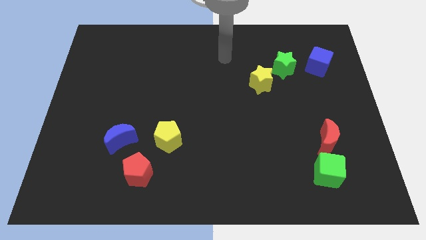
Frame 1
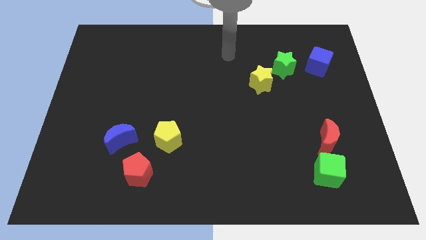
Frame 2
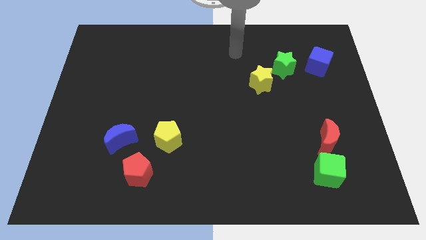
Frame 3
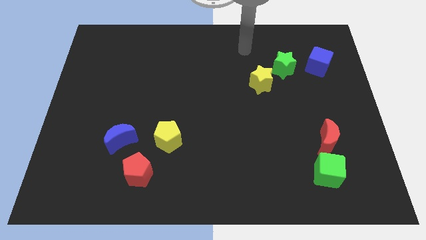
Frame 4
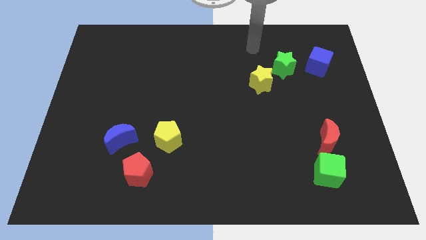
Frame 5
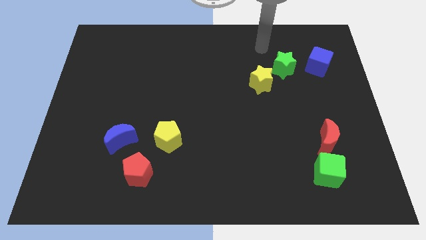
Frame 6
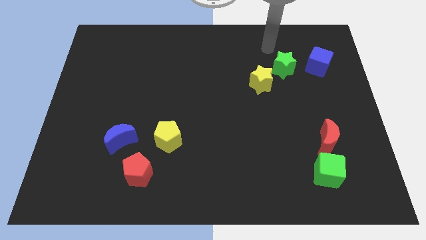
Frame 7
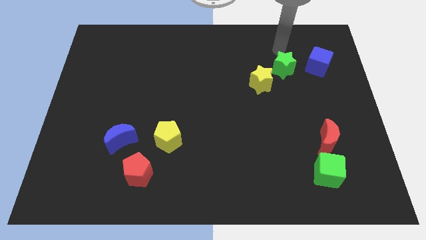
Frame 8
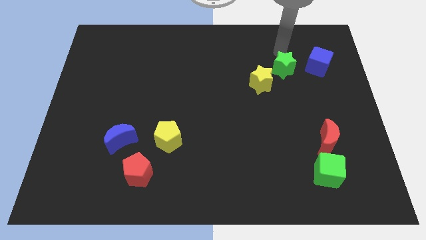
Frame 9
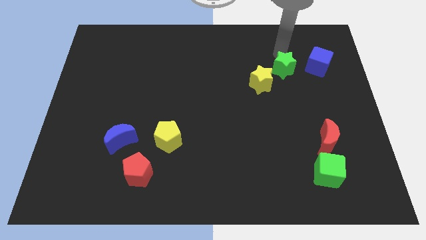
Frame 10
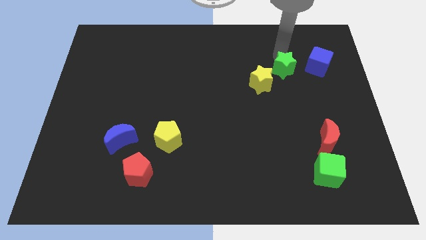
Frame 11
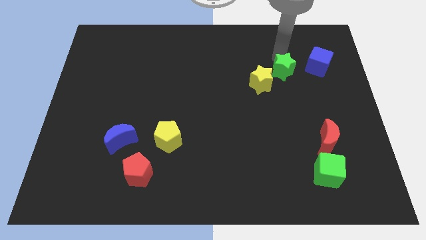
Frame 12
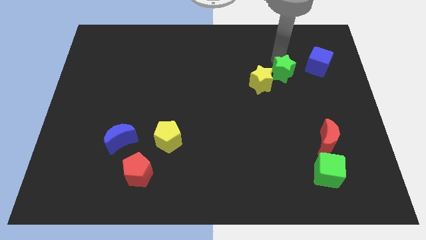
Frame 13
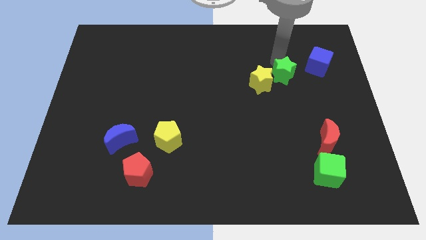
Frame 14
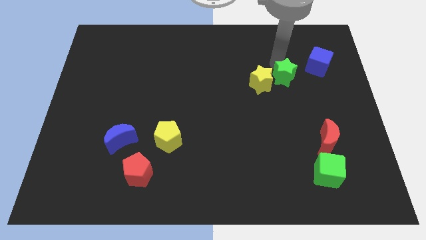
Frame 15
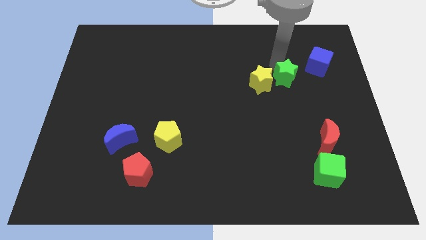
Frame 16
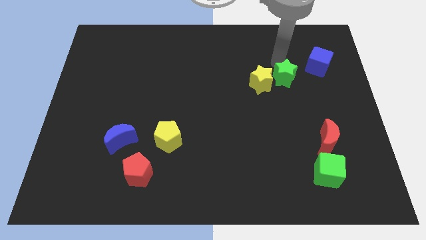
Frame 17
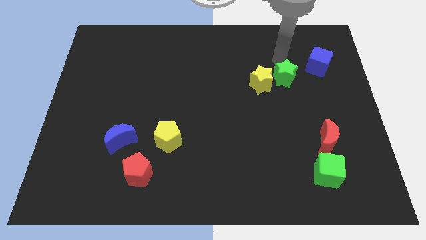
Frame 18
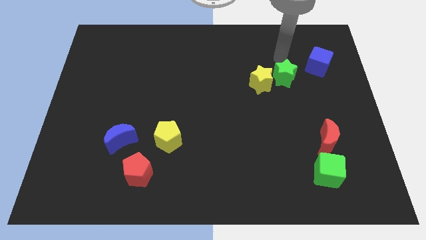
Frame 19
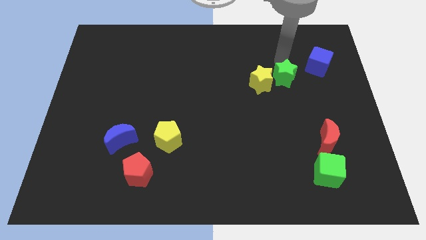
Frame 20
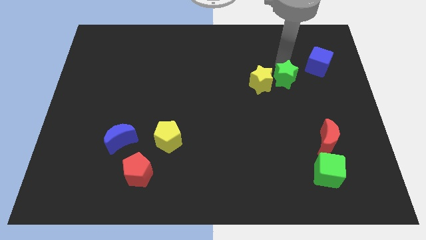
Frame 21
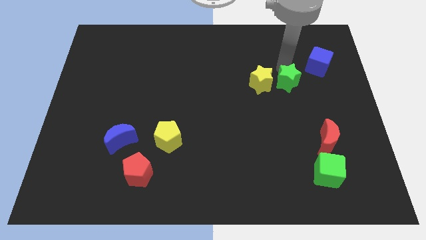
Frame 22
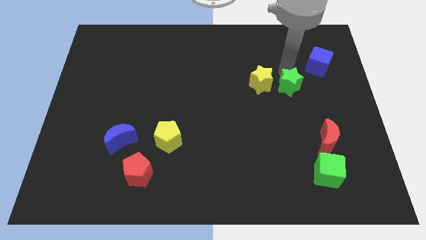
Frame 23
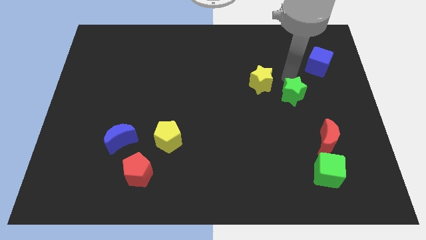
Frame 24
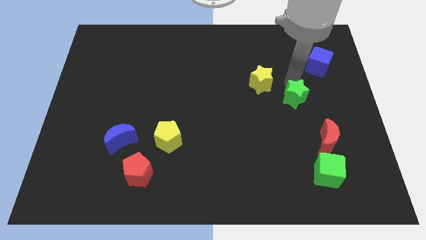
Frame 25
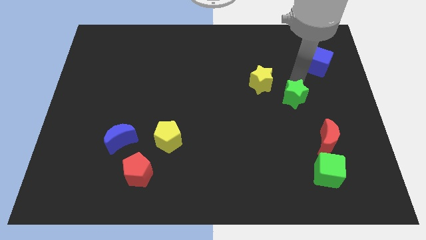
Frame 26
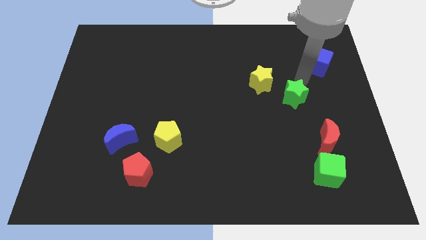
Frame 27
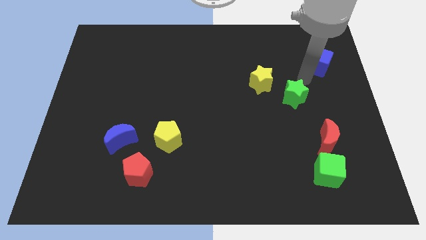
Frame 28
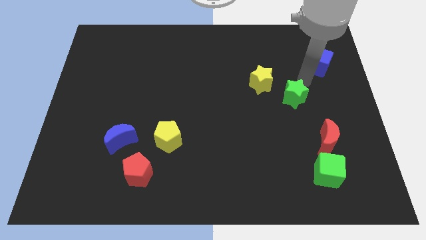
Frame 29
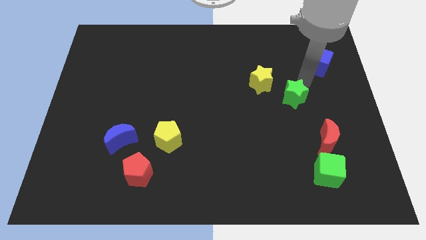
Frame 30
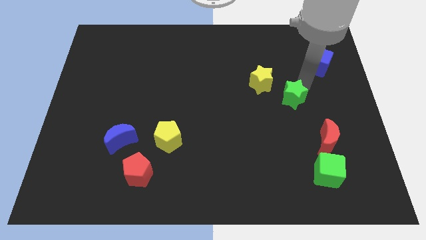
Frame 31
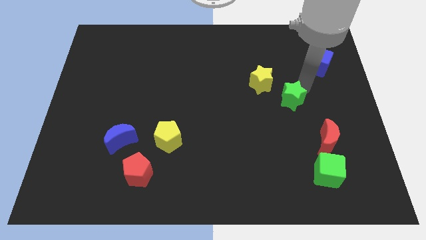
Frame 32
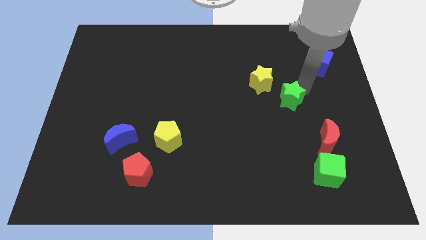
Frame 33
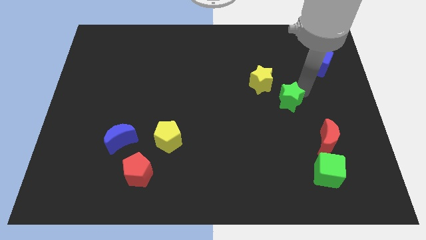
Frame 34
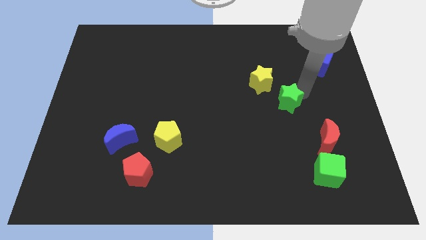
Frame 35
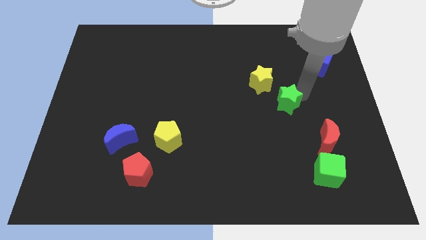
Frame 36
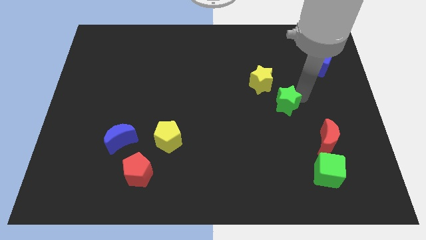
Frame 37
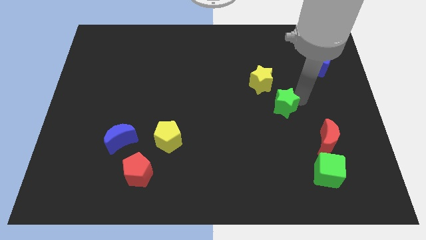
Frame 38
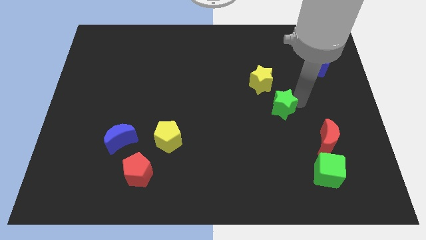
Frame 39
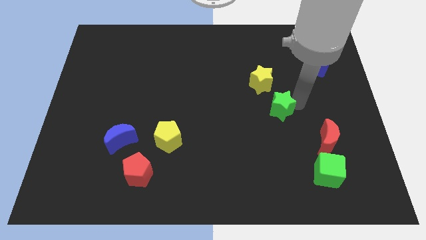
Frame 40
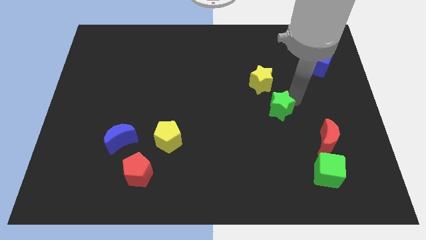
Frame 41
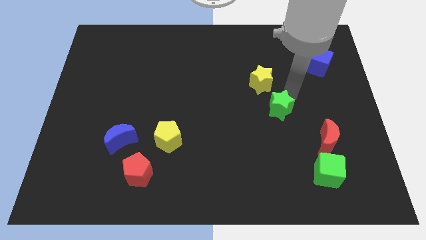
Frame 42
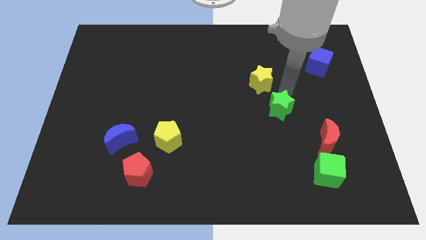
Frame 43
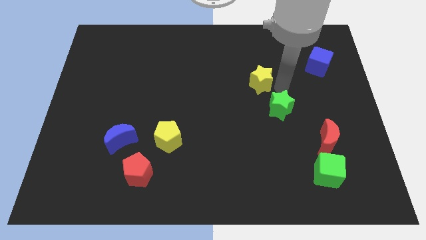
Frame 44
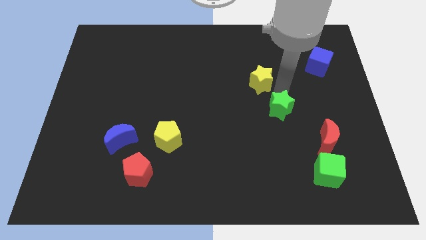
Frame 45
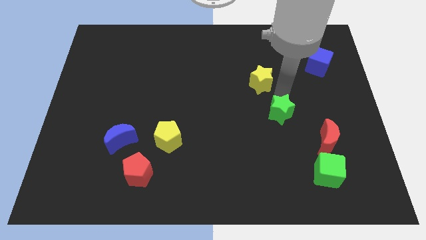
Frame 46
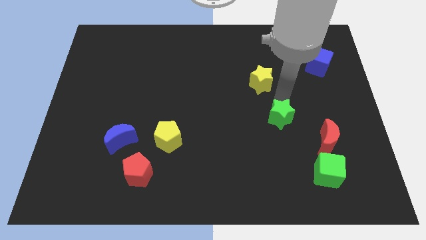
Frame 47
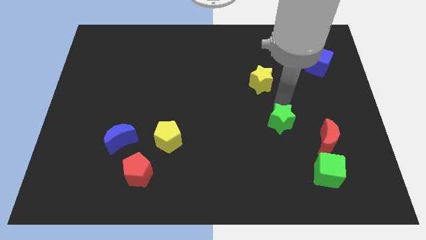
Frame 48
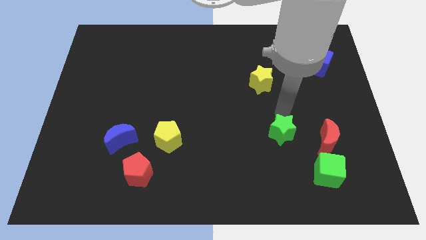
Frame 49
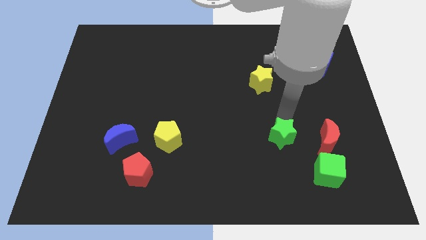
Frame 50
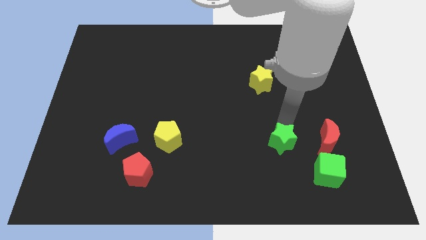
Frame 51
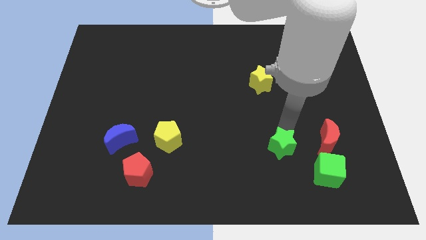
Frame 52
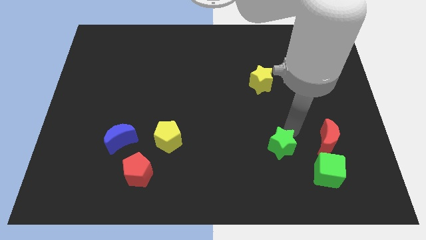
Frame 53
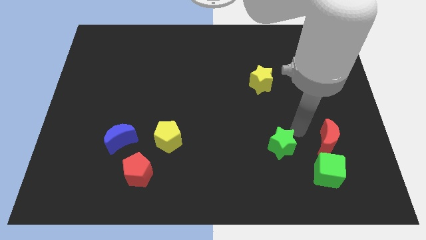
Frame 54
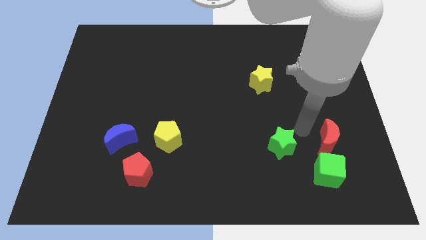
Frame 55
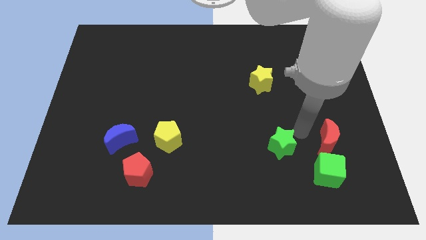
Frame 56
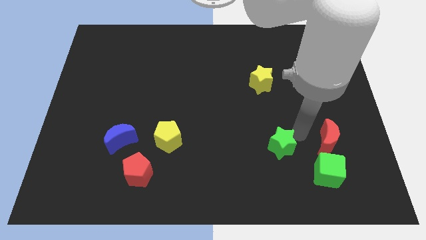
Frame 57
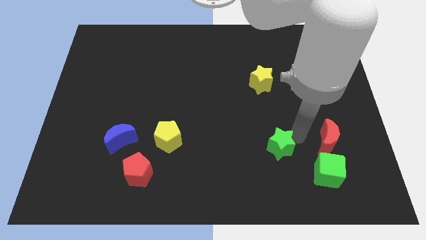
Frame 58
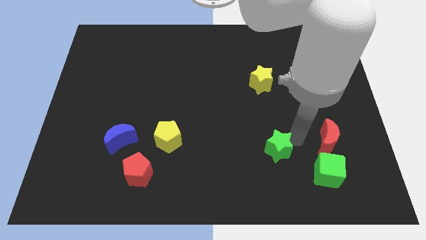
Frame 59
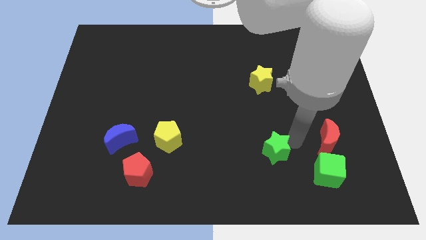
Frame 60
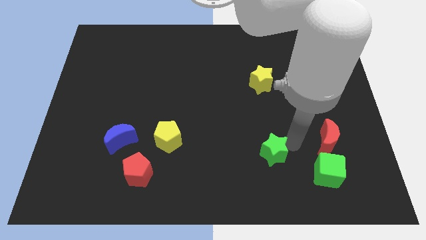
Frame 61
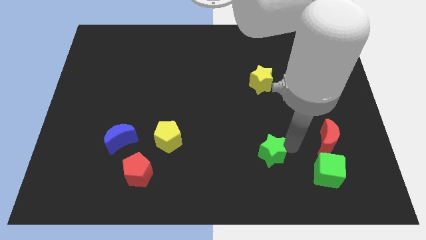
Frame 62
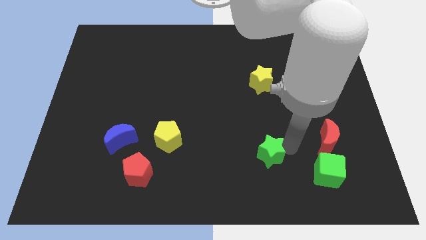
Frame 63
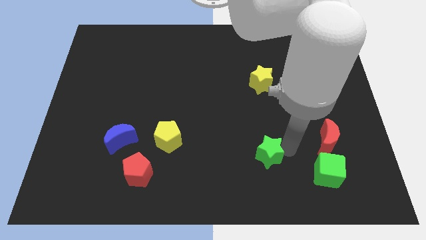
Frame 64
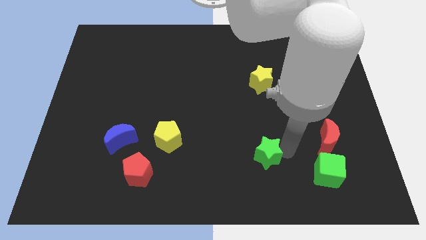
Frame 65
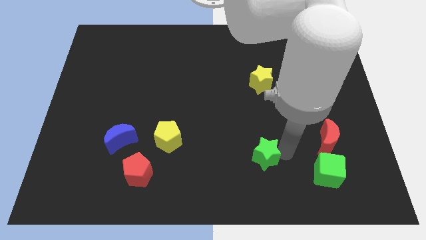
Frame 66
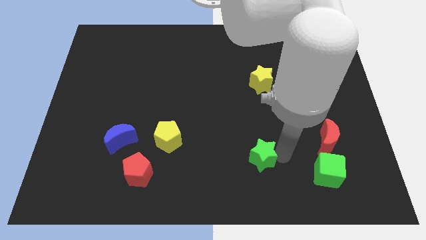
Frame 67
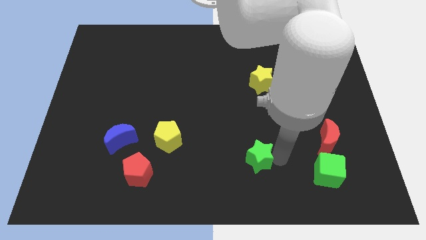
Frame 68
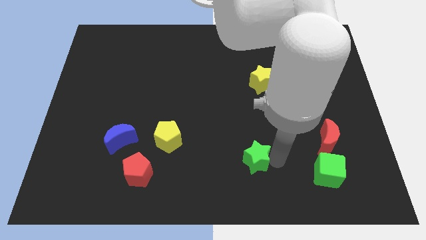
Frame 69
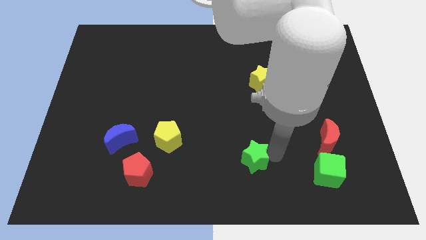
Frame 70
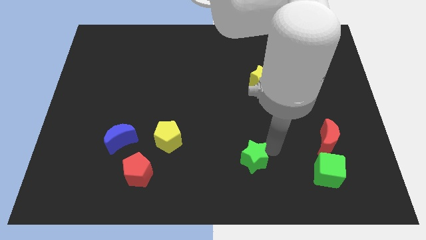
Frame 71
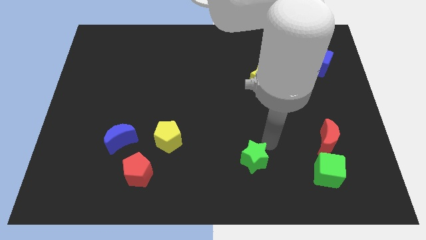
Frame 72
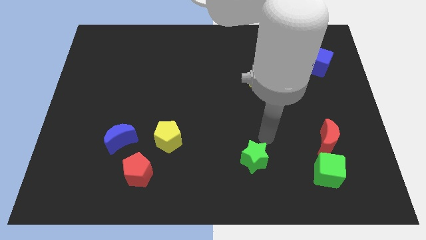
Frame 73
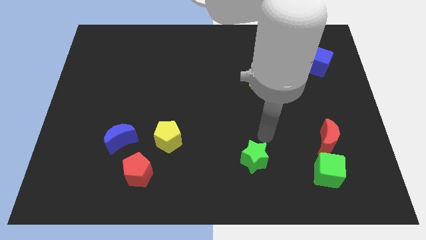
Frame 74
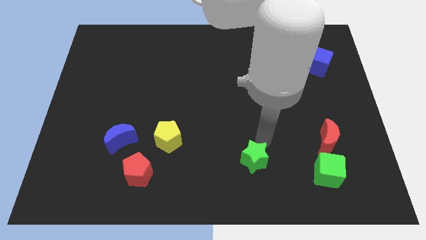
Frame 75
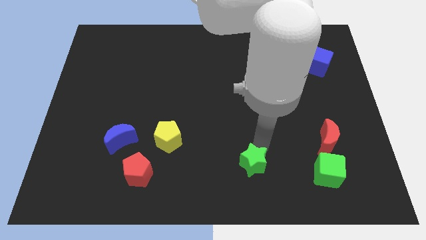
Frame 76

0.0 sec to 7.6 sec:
push the green star to the bottom side
